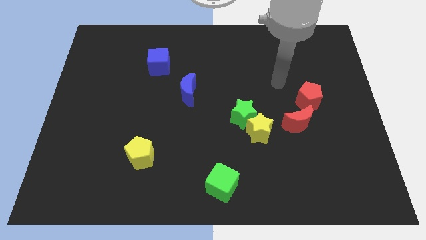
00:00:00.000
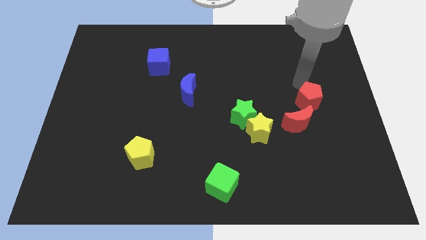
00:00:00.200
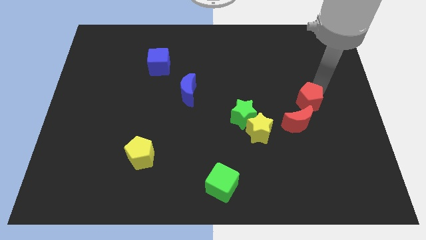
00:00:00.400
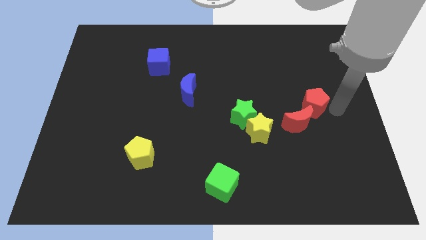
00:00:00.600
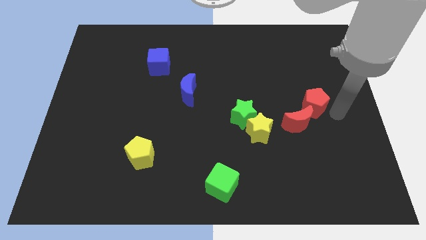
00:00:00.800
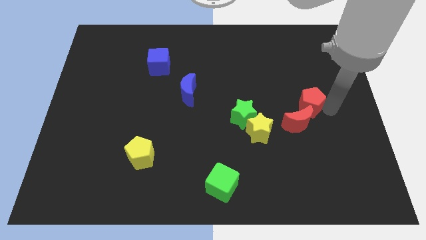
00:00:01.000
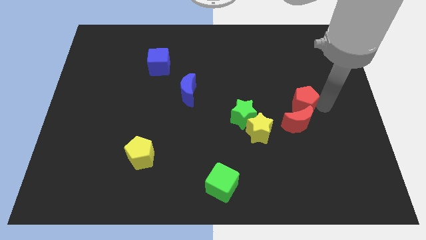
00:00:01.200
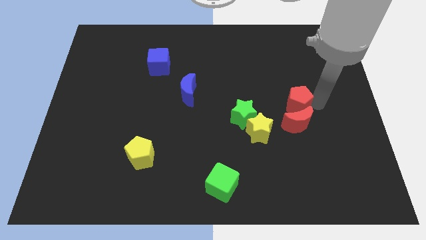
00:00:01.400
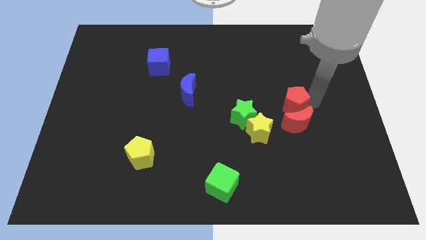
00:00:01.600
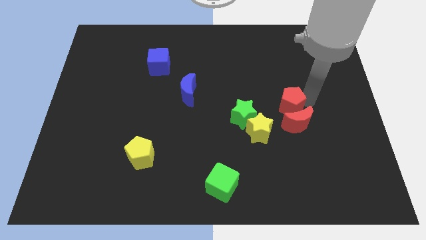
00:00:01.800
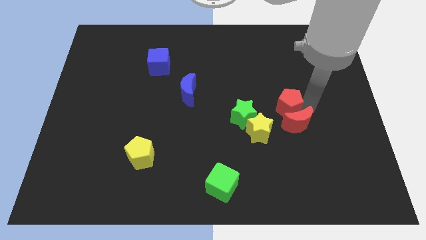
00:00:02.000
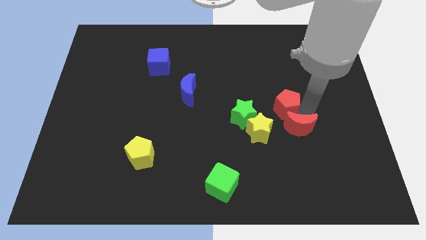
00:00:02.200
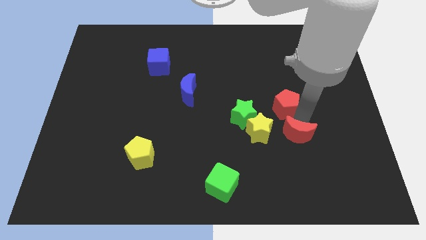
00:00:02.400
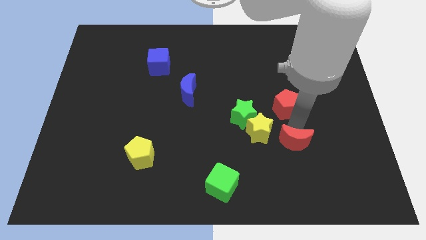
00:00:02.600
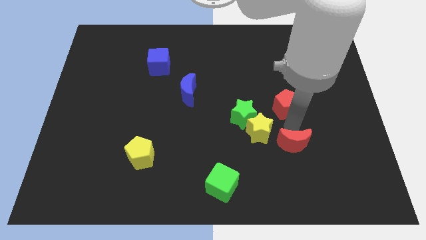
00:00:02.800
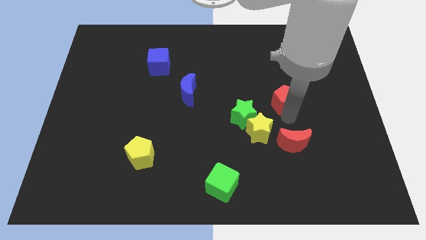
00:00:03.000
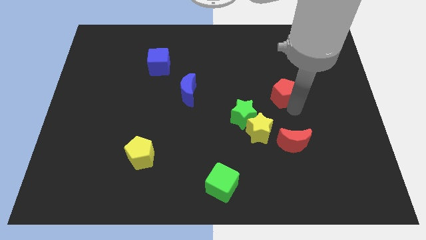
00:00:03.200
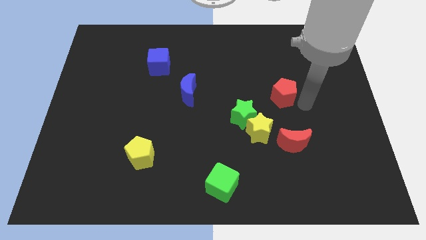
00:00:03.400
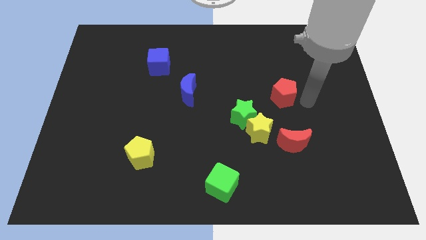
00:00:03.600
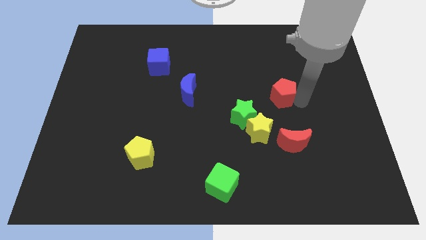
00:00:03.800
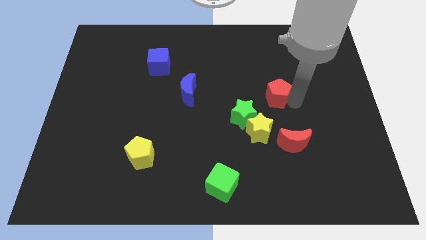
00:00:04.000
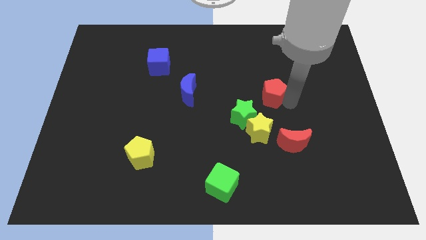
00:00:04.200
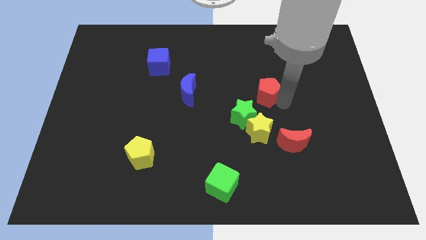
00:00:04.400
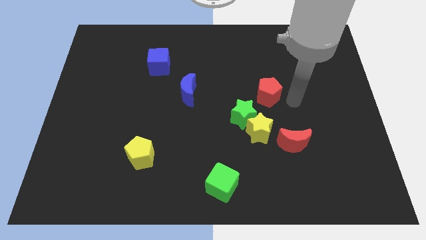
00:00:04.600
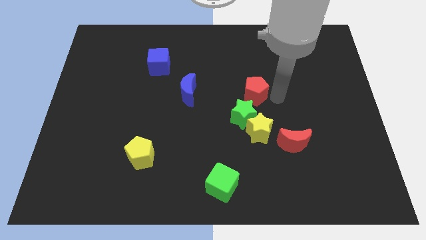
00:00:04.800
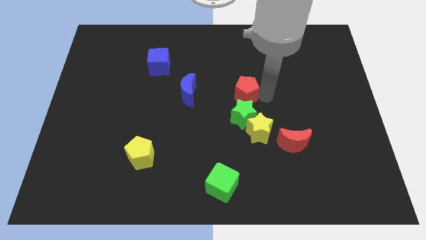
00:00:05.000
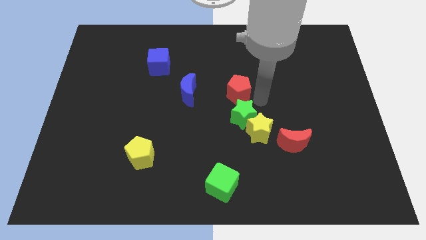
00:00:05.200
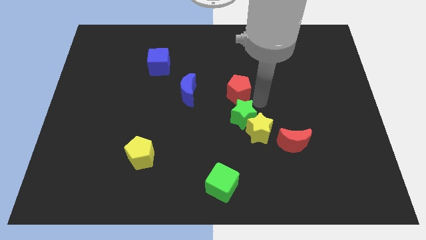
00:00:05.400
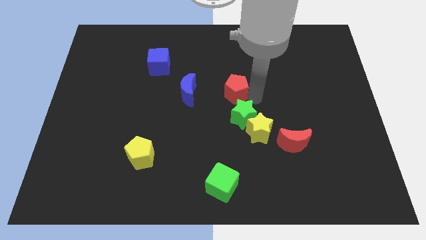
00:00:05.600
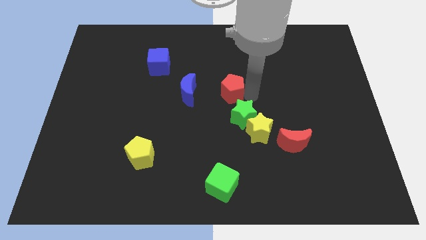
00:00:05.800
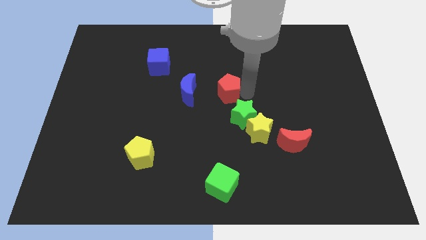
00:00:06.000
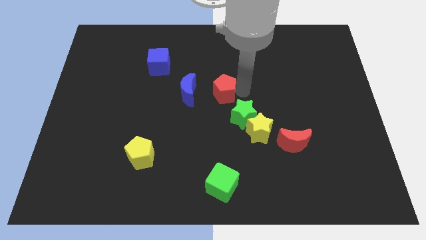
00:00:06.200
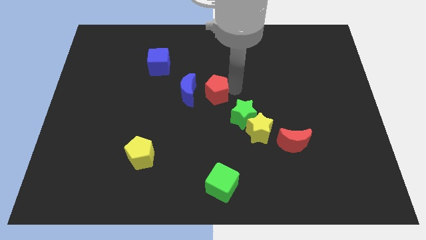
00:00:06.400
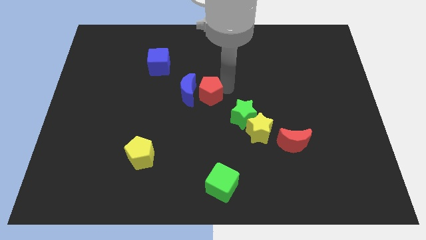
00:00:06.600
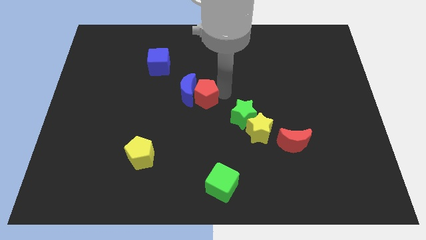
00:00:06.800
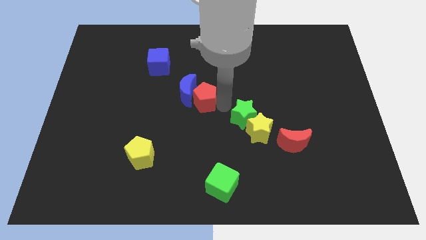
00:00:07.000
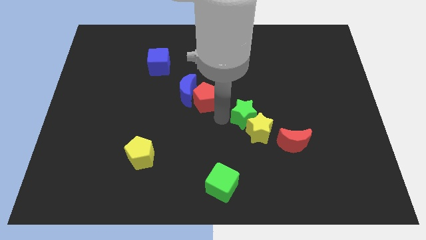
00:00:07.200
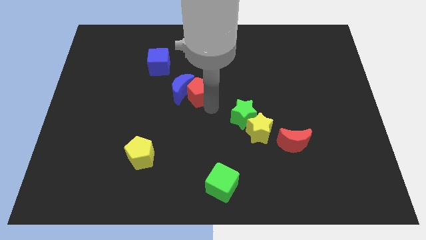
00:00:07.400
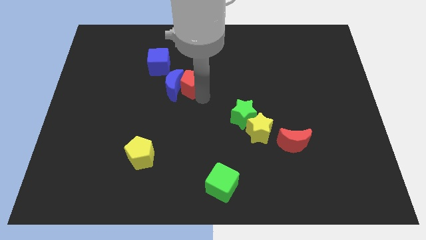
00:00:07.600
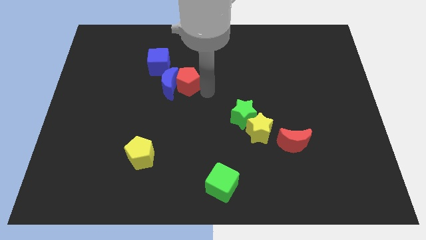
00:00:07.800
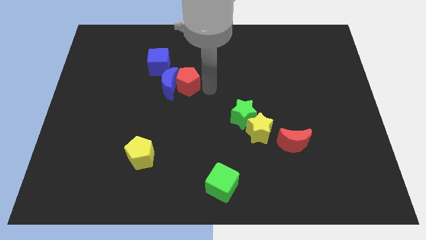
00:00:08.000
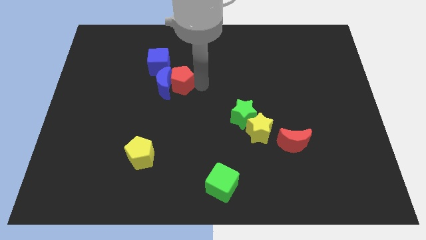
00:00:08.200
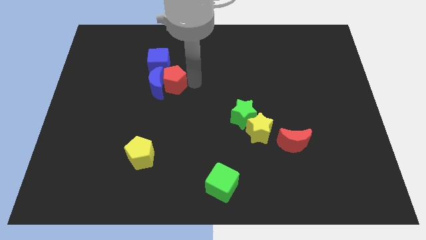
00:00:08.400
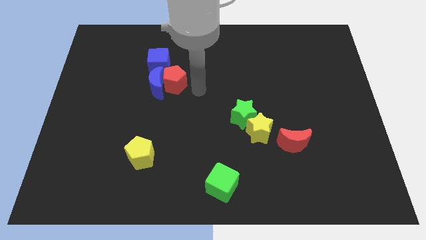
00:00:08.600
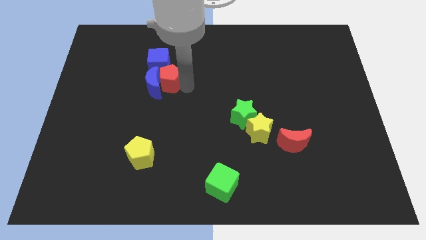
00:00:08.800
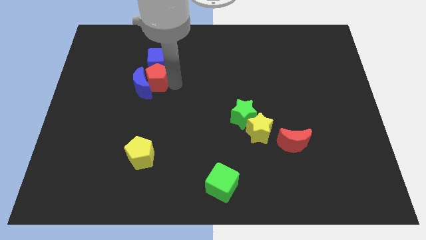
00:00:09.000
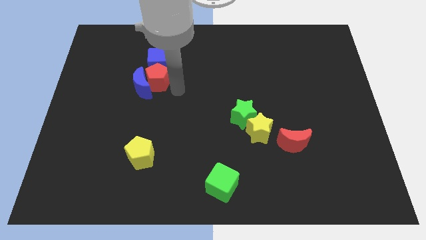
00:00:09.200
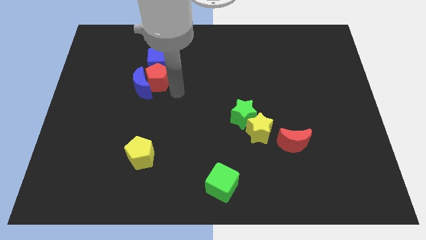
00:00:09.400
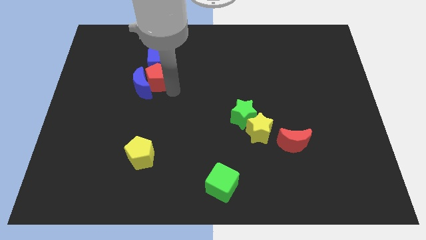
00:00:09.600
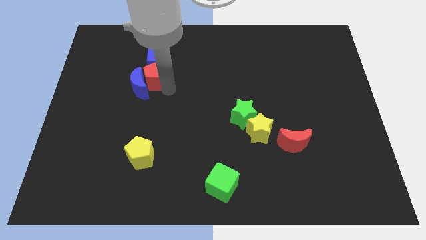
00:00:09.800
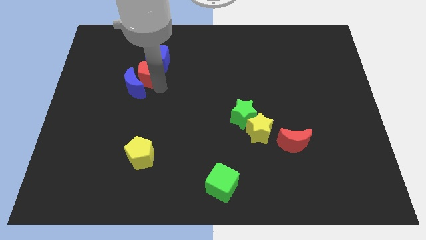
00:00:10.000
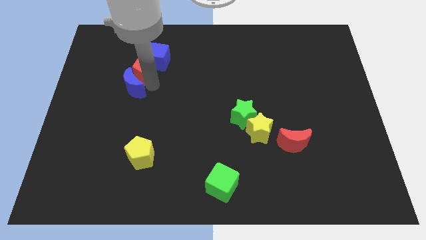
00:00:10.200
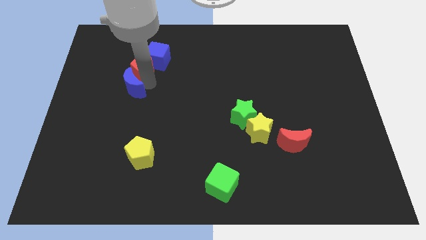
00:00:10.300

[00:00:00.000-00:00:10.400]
move the red pentagon to the left side of the blue cube

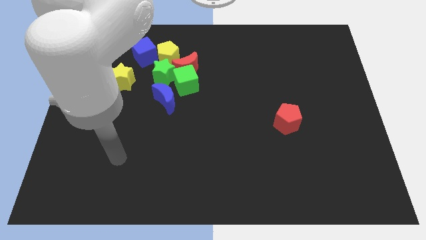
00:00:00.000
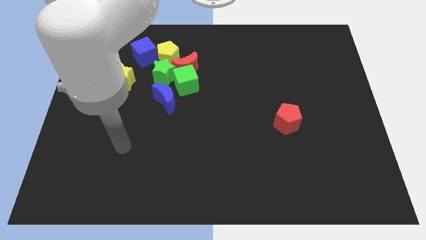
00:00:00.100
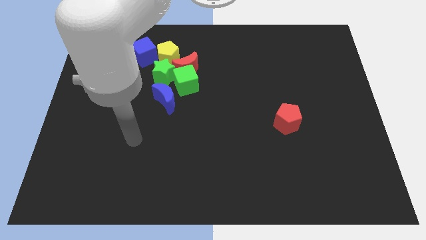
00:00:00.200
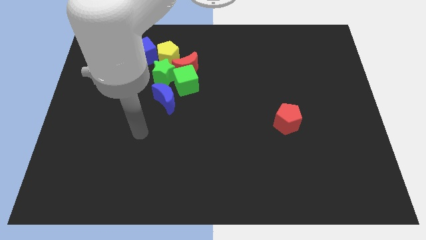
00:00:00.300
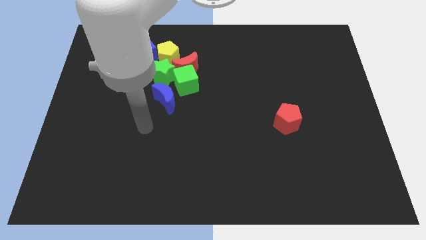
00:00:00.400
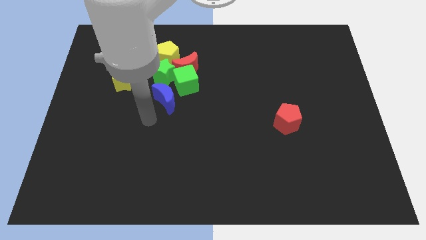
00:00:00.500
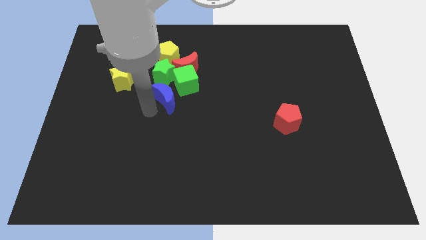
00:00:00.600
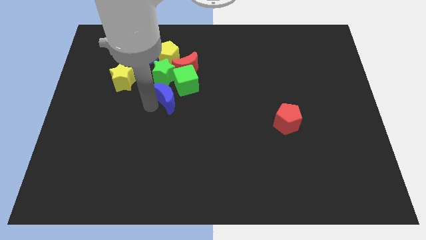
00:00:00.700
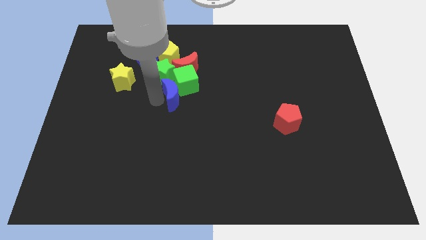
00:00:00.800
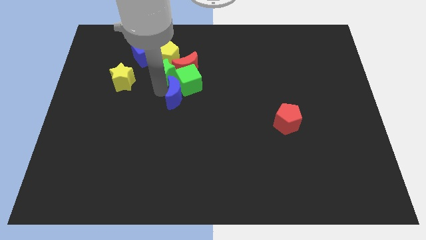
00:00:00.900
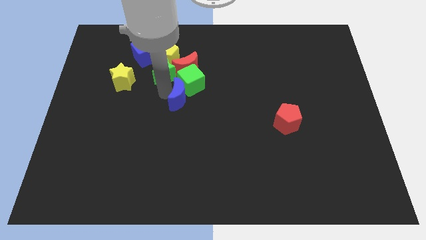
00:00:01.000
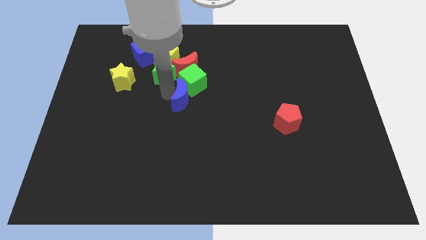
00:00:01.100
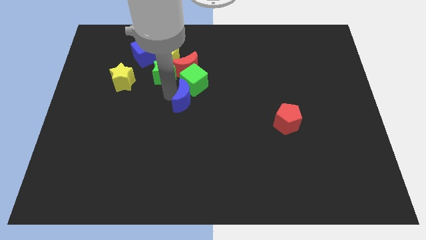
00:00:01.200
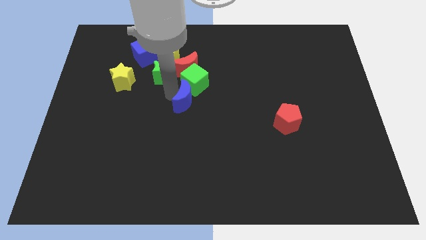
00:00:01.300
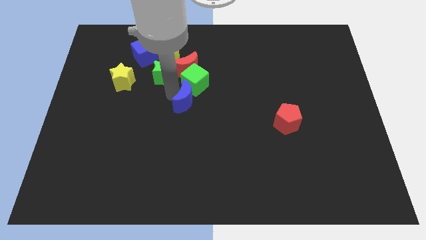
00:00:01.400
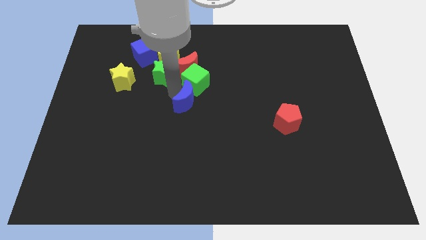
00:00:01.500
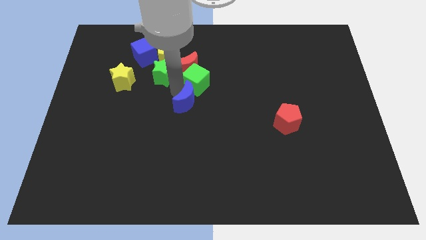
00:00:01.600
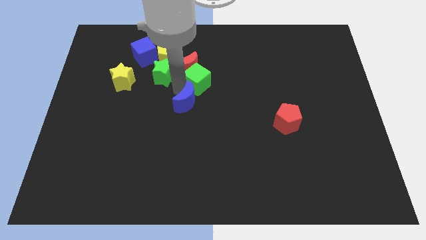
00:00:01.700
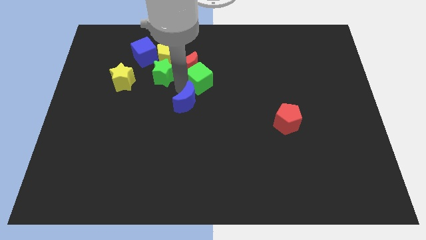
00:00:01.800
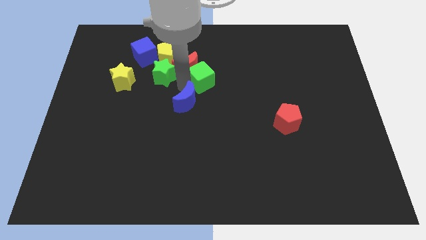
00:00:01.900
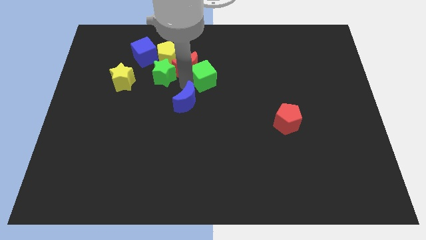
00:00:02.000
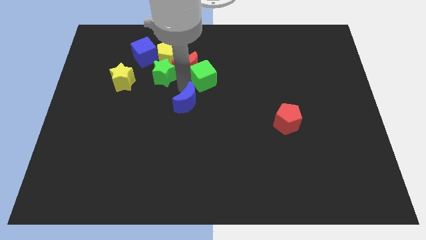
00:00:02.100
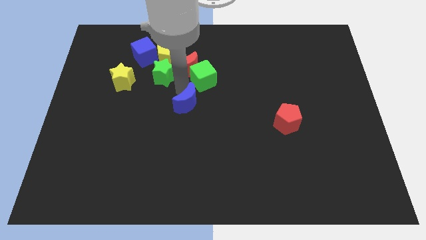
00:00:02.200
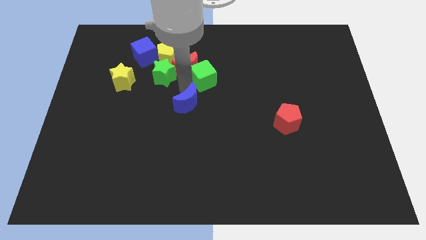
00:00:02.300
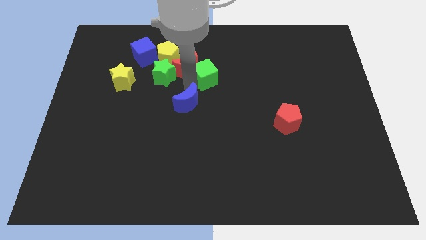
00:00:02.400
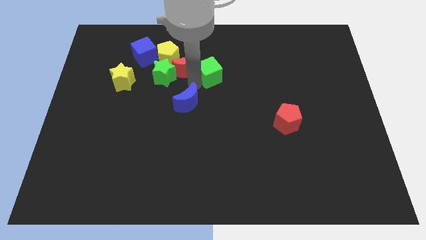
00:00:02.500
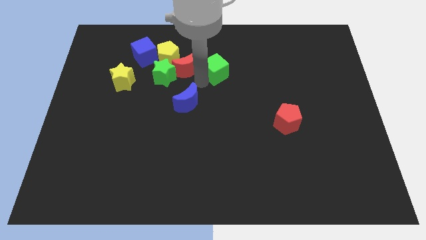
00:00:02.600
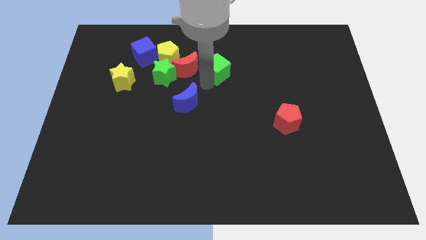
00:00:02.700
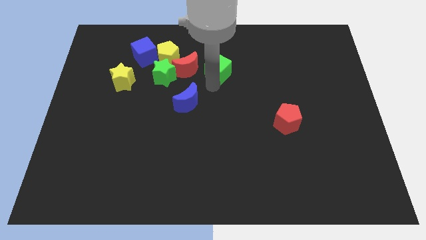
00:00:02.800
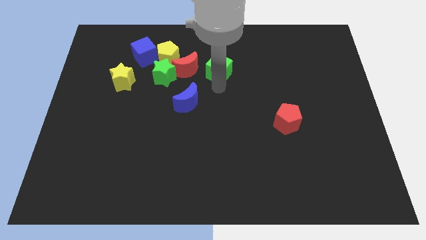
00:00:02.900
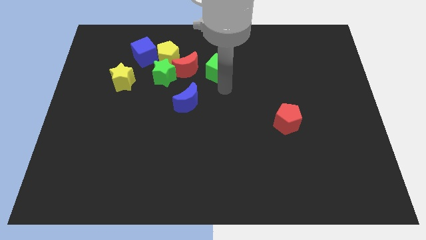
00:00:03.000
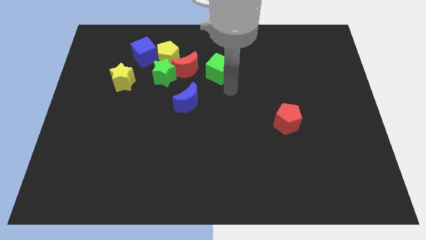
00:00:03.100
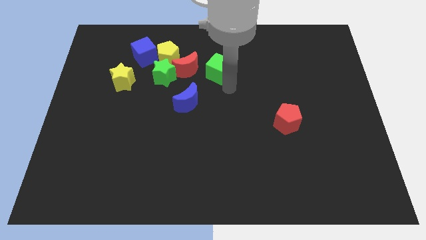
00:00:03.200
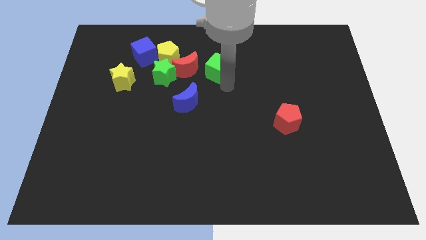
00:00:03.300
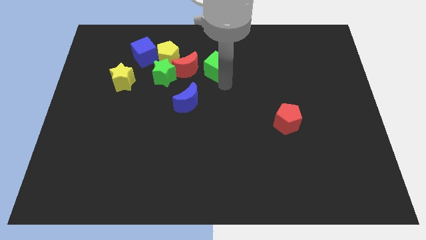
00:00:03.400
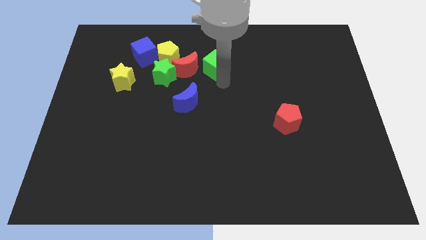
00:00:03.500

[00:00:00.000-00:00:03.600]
push the green cube to the top right side of the red moon
